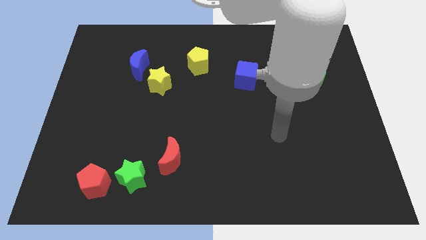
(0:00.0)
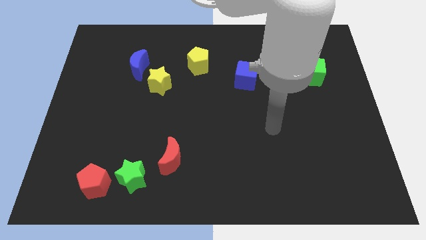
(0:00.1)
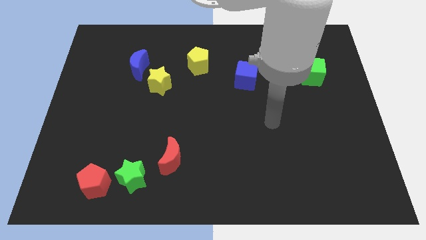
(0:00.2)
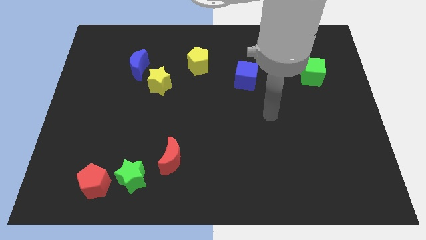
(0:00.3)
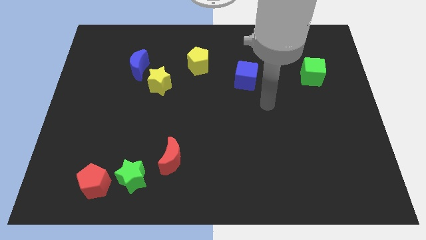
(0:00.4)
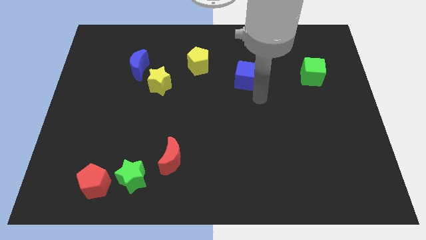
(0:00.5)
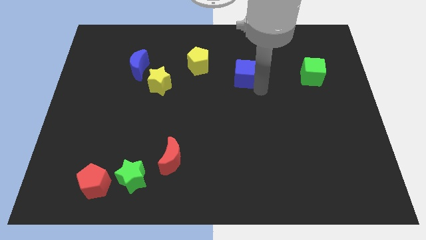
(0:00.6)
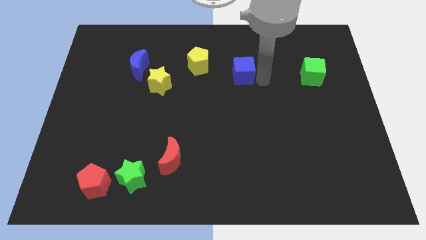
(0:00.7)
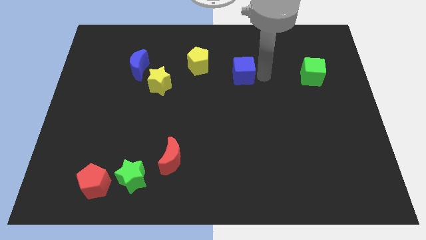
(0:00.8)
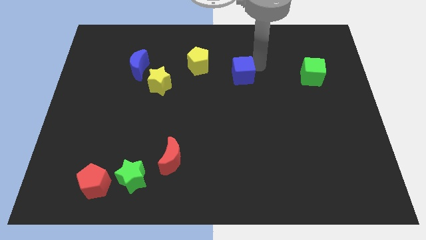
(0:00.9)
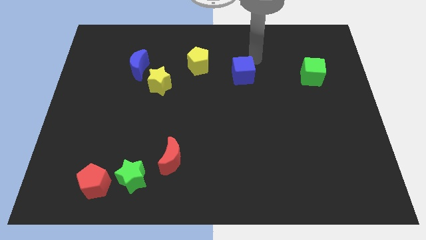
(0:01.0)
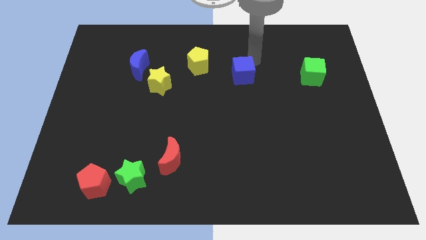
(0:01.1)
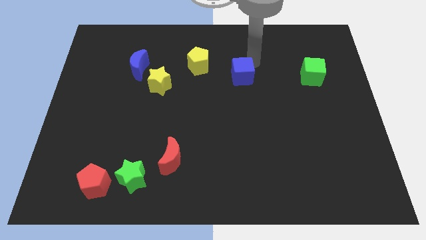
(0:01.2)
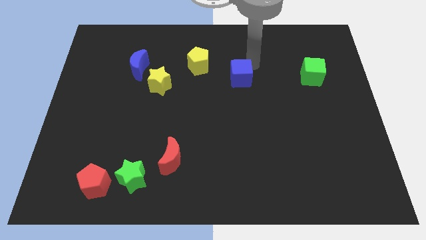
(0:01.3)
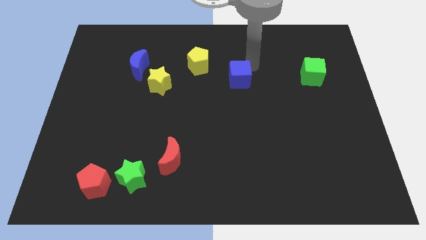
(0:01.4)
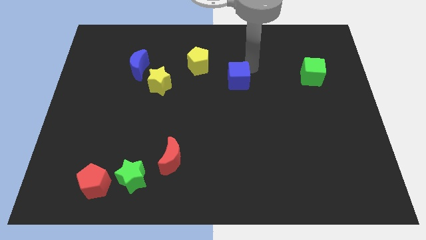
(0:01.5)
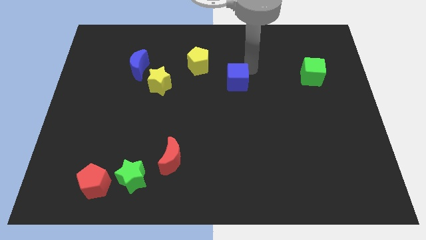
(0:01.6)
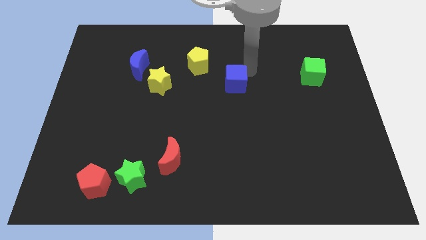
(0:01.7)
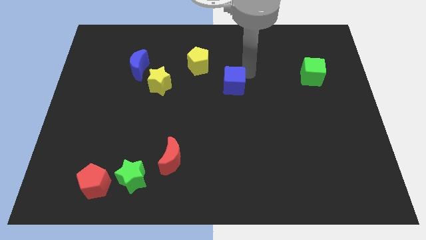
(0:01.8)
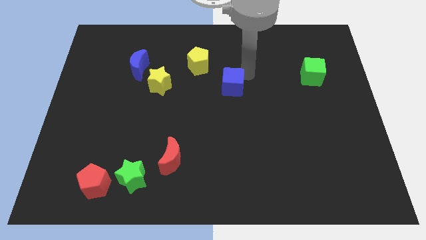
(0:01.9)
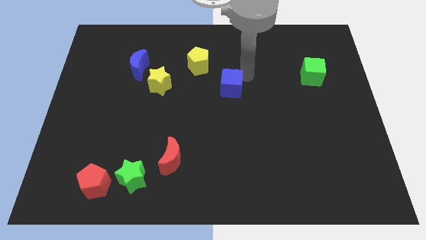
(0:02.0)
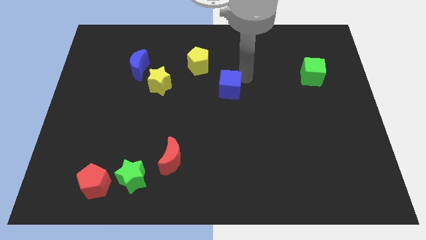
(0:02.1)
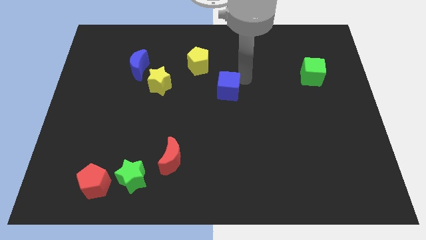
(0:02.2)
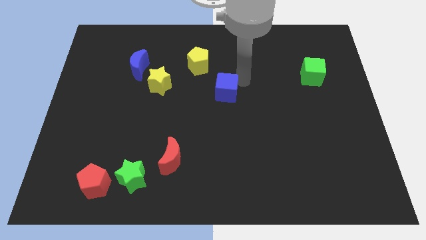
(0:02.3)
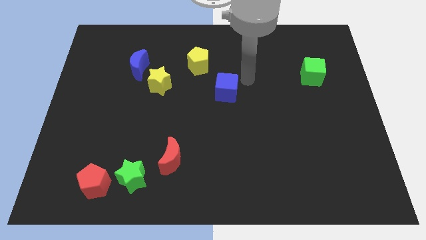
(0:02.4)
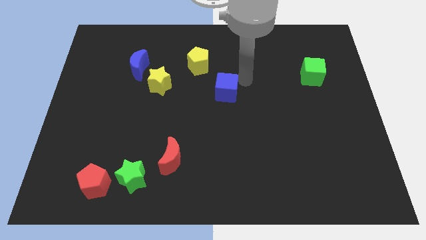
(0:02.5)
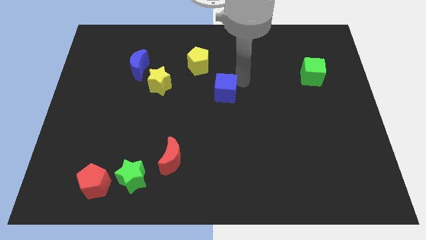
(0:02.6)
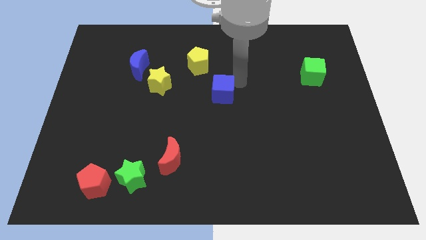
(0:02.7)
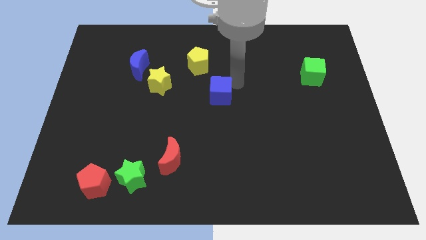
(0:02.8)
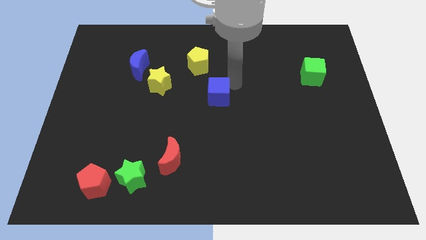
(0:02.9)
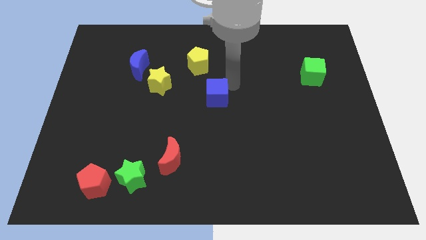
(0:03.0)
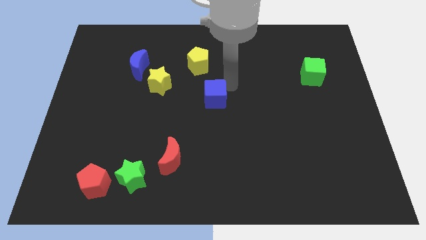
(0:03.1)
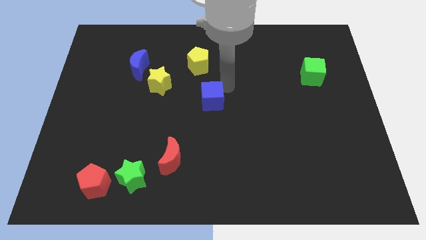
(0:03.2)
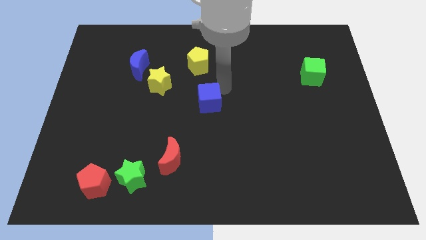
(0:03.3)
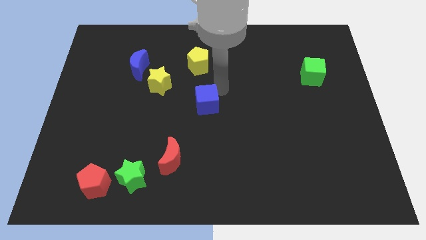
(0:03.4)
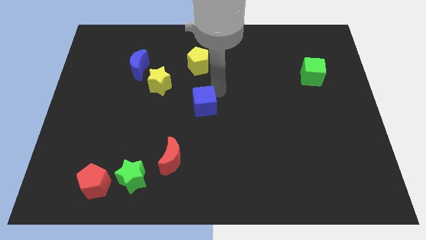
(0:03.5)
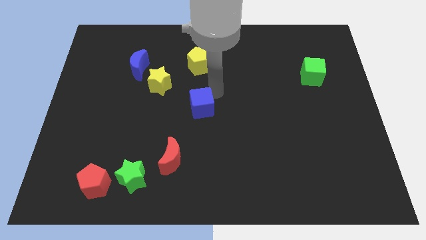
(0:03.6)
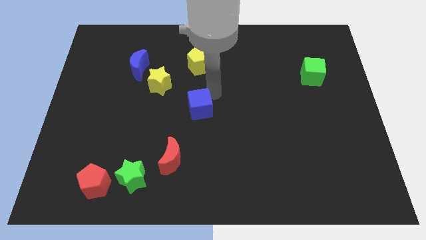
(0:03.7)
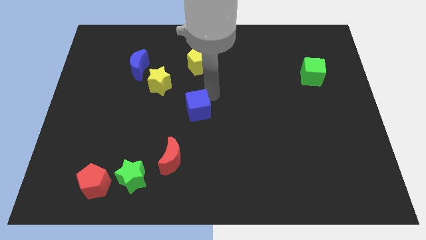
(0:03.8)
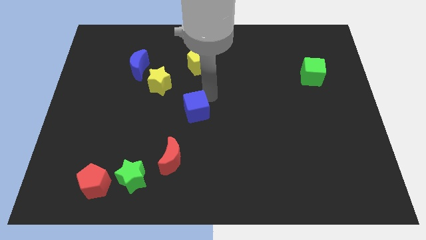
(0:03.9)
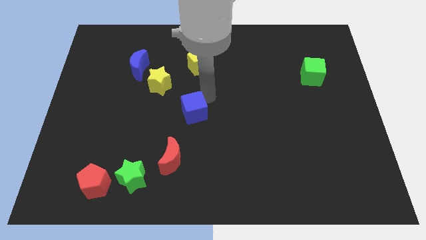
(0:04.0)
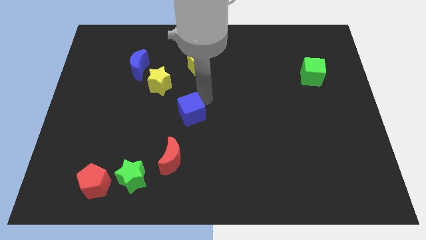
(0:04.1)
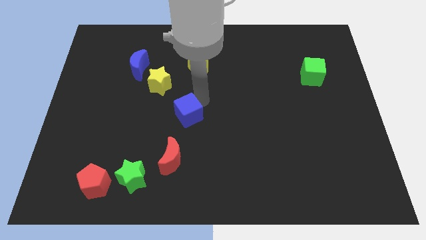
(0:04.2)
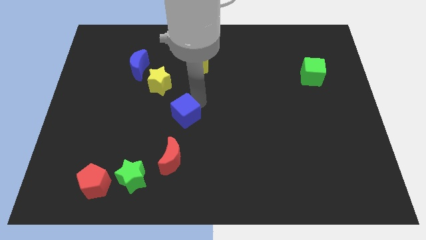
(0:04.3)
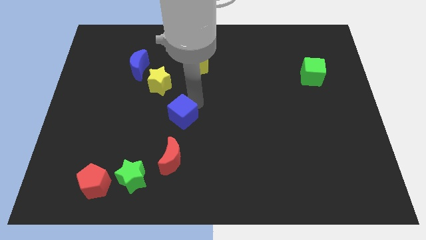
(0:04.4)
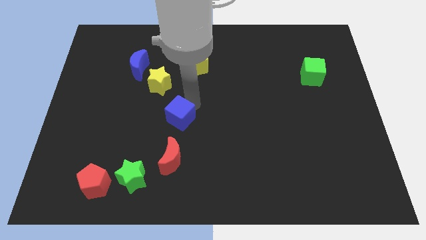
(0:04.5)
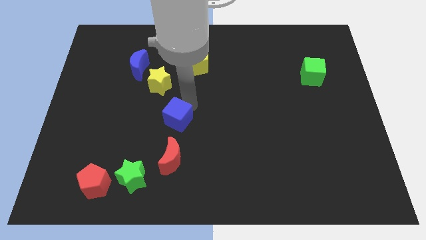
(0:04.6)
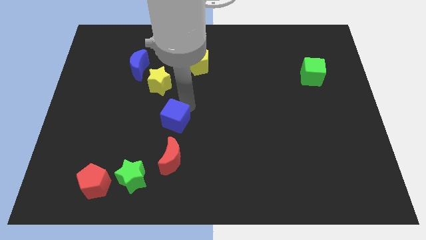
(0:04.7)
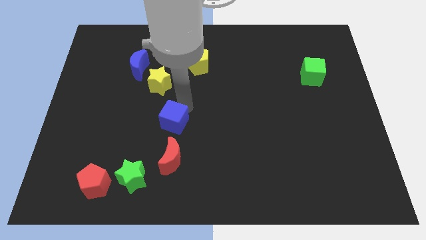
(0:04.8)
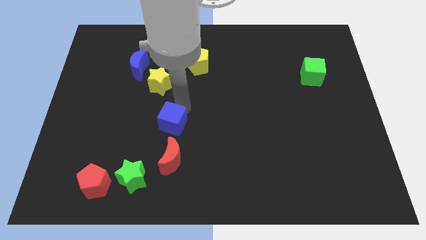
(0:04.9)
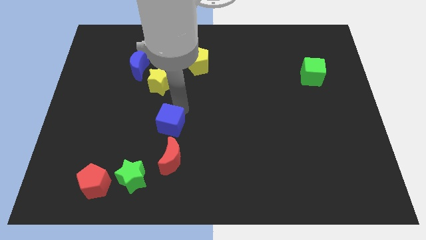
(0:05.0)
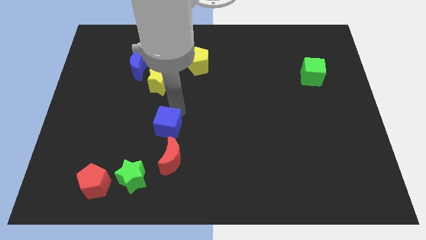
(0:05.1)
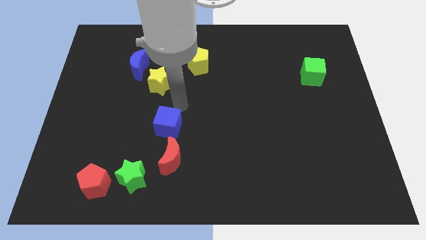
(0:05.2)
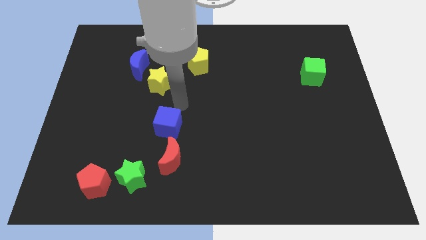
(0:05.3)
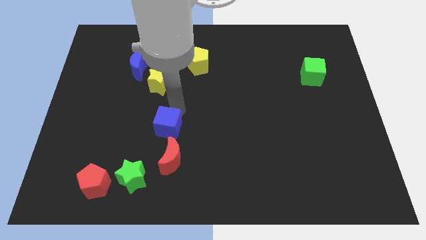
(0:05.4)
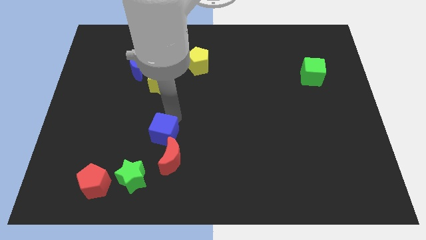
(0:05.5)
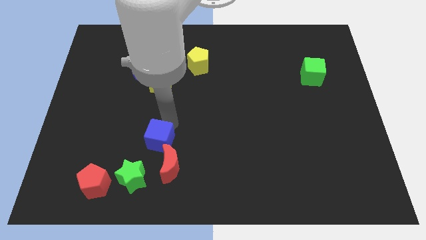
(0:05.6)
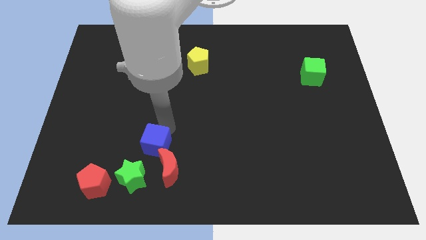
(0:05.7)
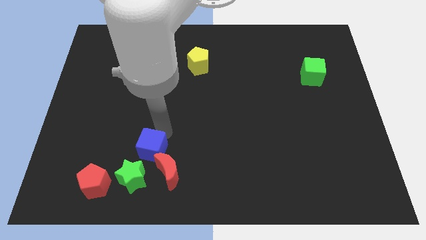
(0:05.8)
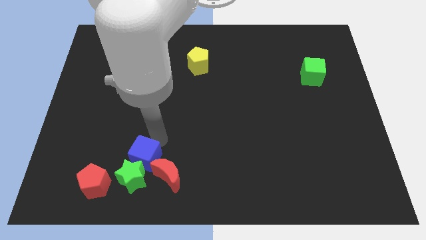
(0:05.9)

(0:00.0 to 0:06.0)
move the blue cube next to the green star

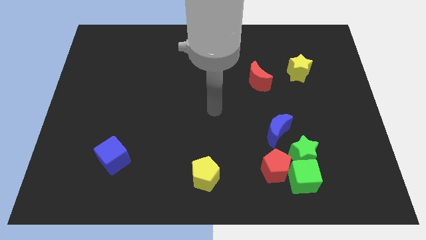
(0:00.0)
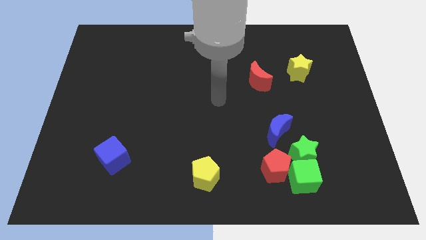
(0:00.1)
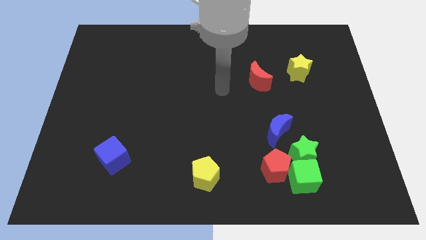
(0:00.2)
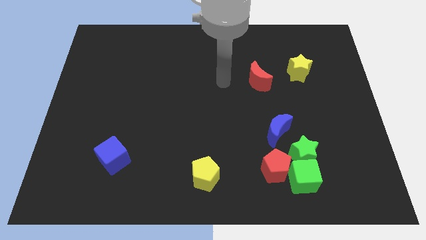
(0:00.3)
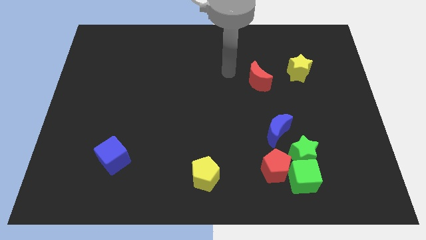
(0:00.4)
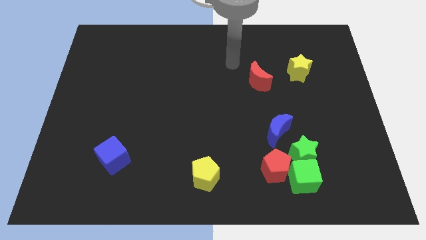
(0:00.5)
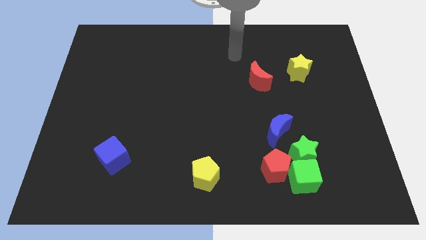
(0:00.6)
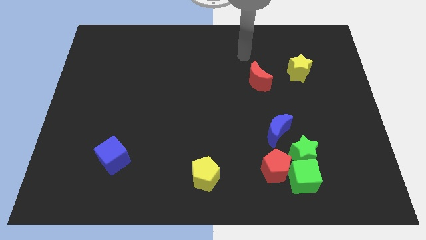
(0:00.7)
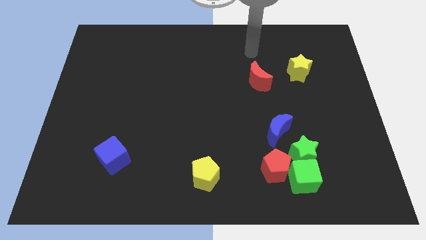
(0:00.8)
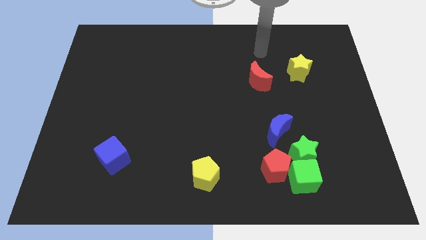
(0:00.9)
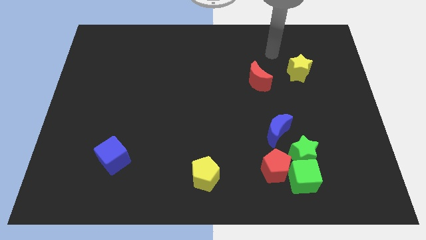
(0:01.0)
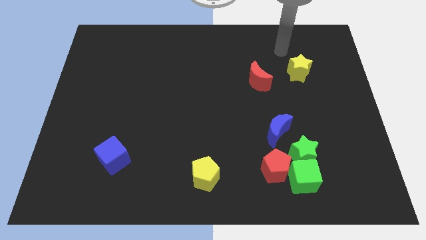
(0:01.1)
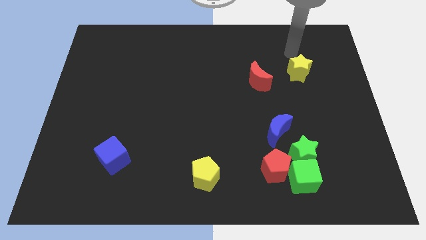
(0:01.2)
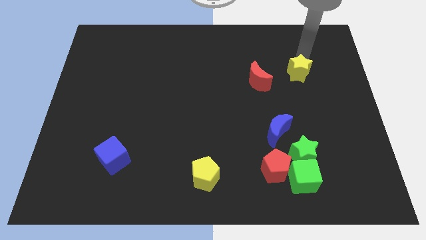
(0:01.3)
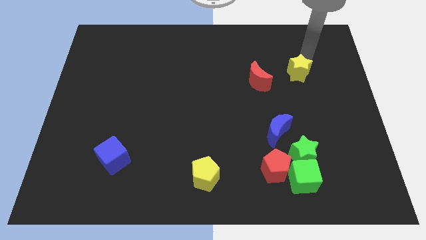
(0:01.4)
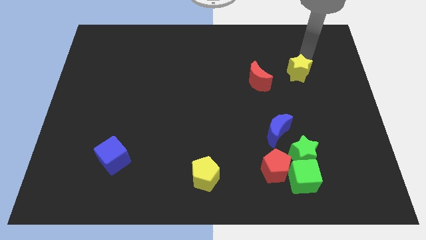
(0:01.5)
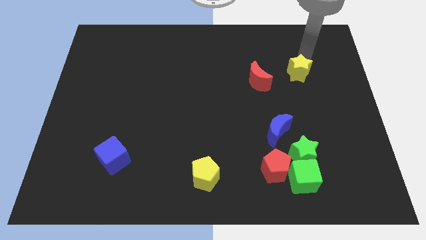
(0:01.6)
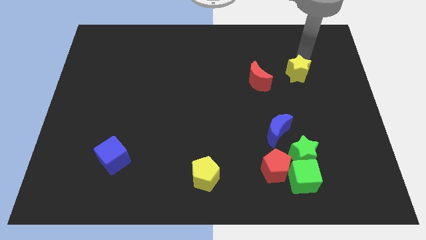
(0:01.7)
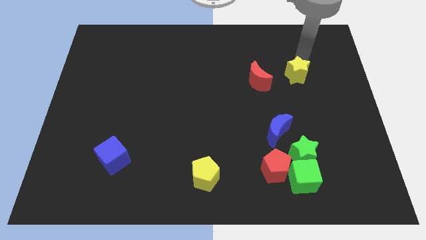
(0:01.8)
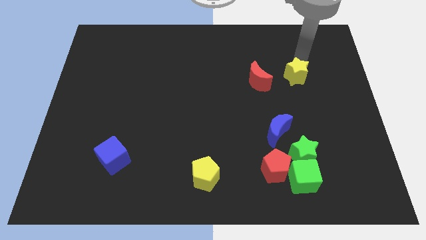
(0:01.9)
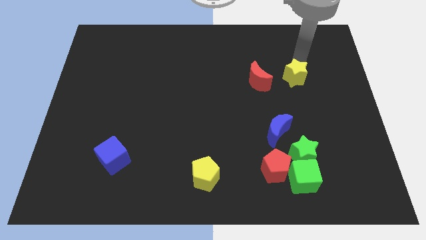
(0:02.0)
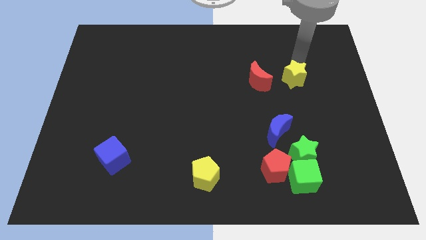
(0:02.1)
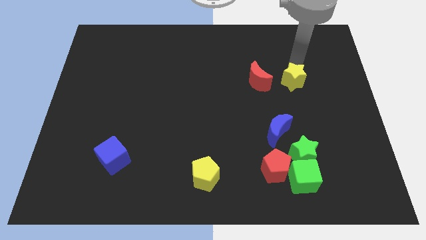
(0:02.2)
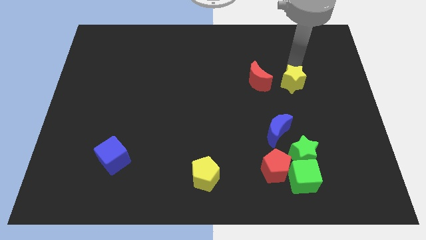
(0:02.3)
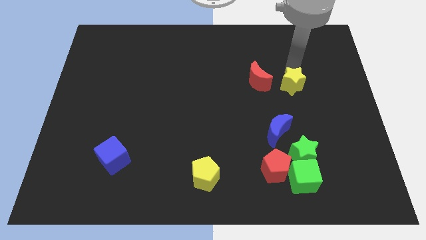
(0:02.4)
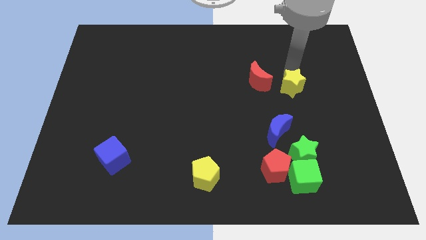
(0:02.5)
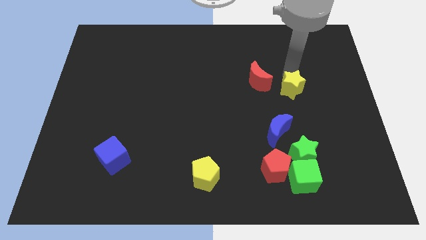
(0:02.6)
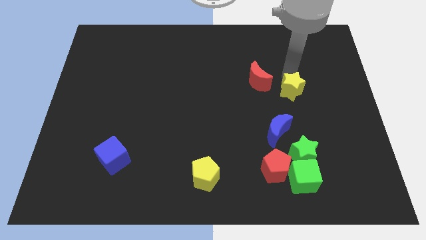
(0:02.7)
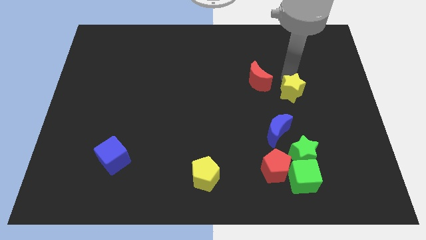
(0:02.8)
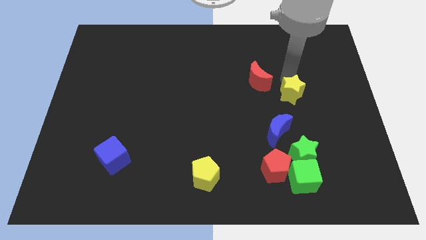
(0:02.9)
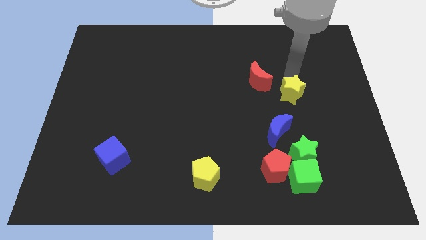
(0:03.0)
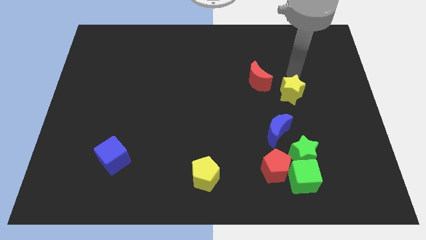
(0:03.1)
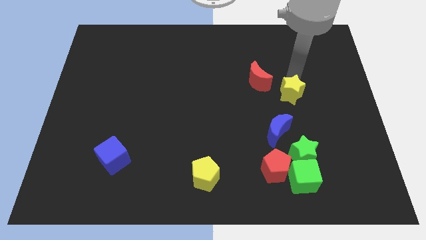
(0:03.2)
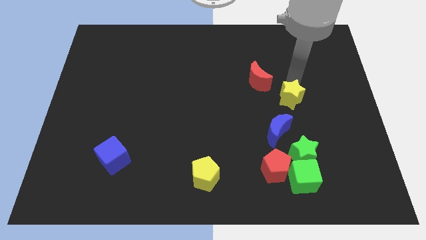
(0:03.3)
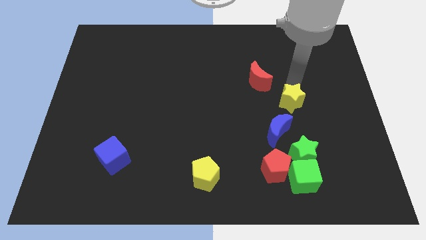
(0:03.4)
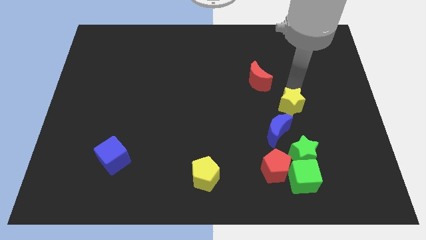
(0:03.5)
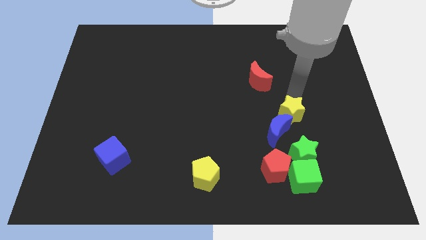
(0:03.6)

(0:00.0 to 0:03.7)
slide the yellow star towards the blue moon
